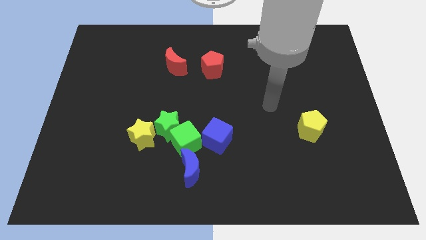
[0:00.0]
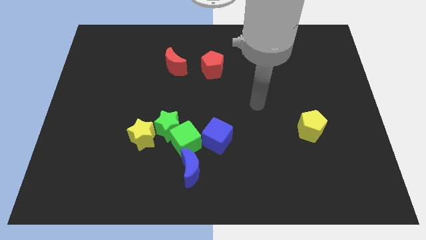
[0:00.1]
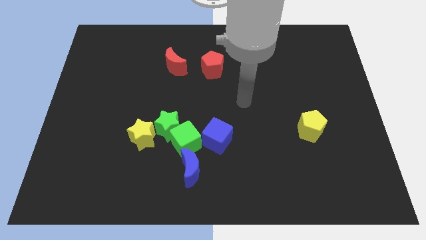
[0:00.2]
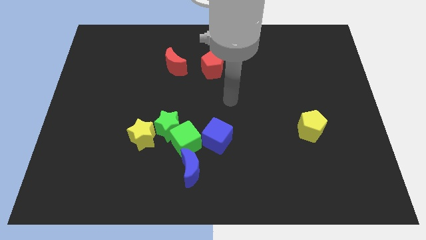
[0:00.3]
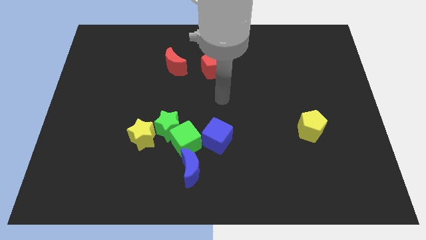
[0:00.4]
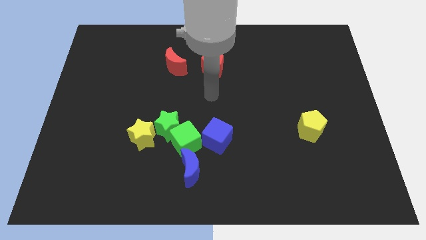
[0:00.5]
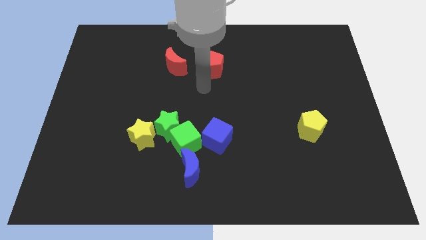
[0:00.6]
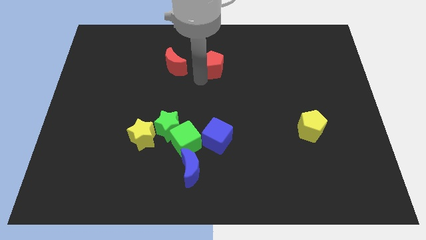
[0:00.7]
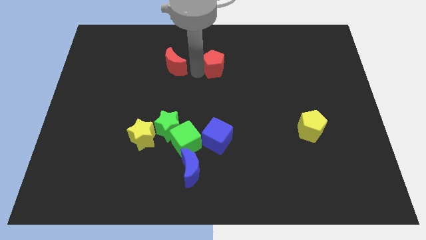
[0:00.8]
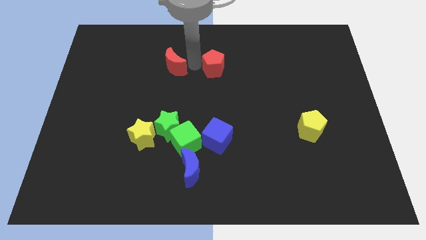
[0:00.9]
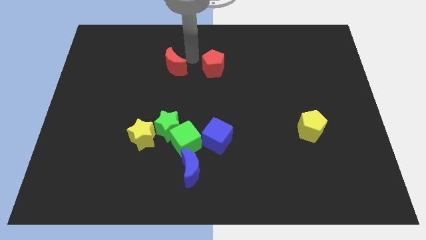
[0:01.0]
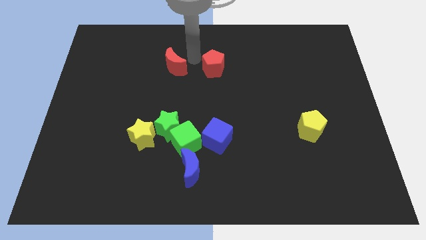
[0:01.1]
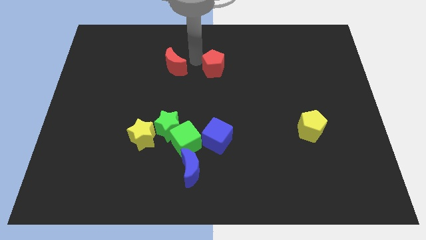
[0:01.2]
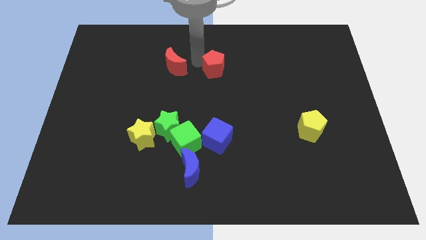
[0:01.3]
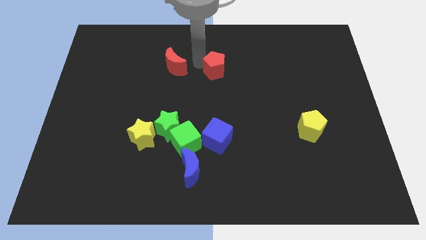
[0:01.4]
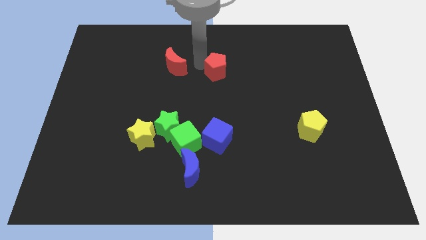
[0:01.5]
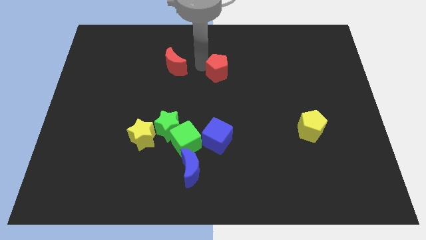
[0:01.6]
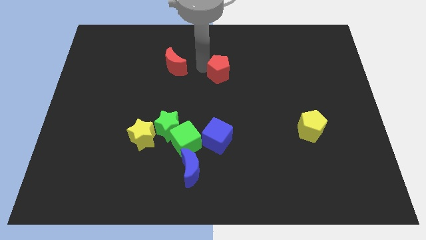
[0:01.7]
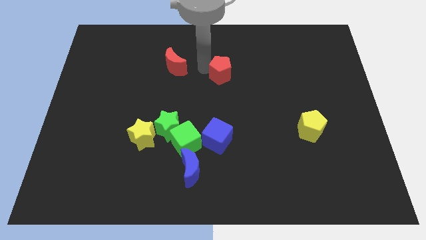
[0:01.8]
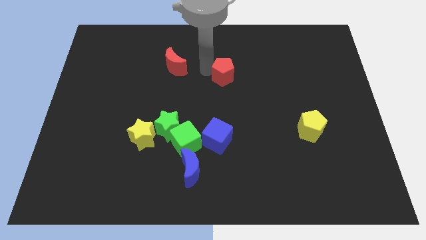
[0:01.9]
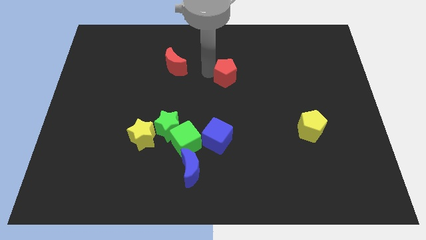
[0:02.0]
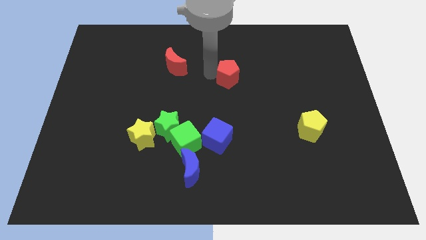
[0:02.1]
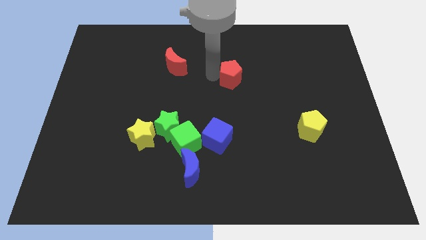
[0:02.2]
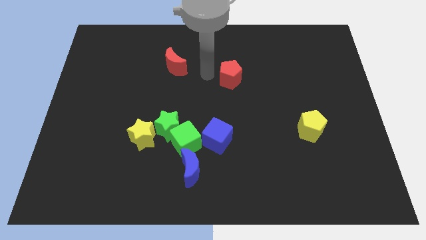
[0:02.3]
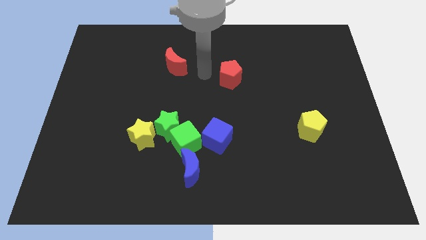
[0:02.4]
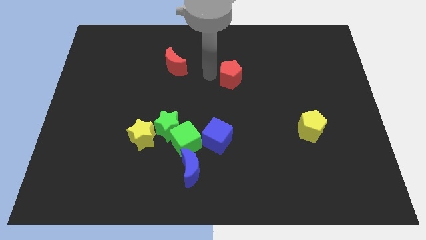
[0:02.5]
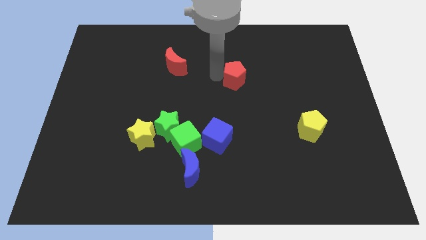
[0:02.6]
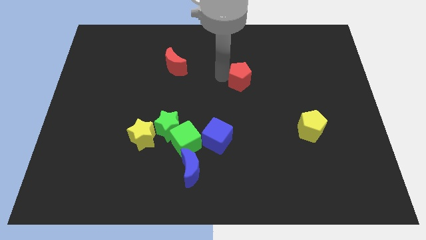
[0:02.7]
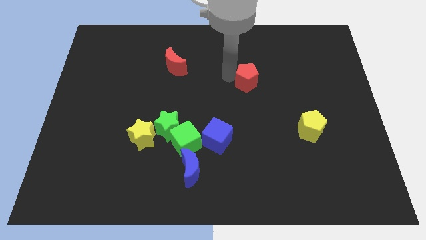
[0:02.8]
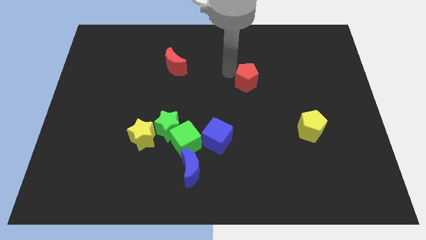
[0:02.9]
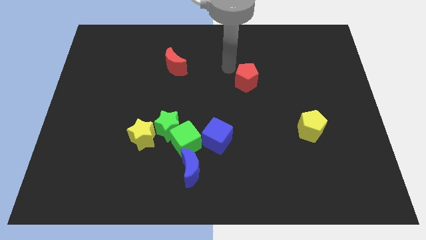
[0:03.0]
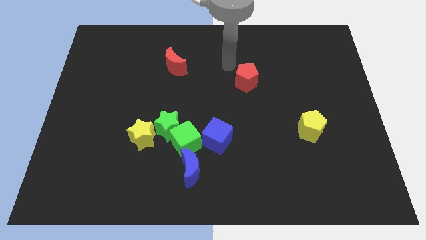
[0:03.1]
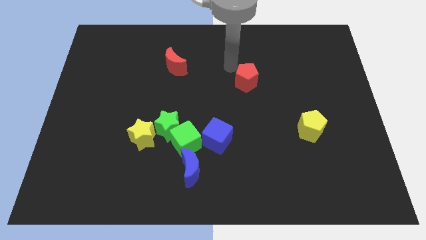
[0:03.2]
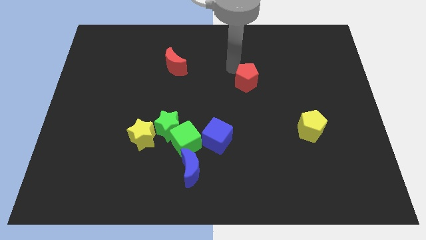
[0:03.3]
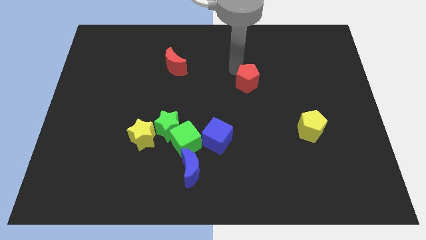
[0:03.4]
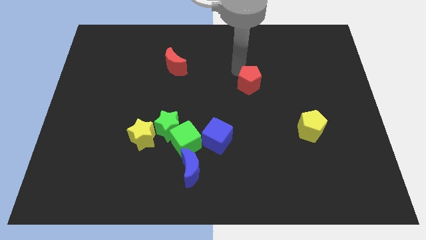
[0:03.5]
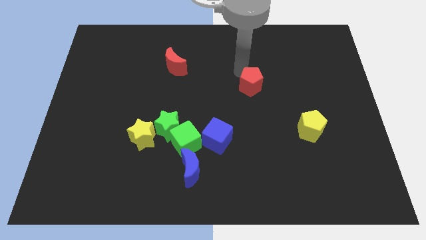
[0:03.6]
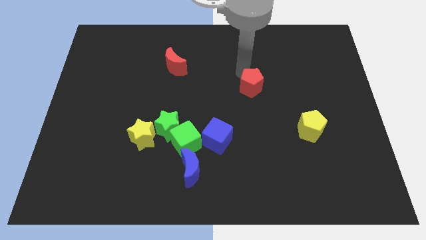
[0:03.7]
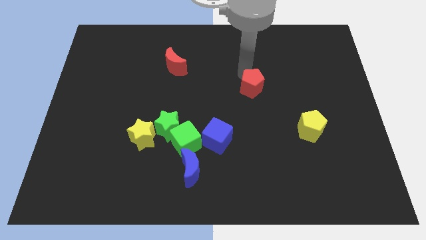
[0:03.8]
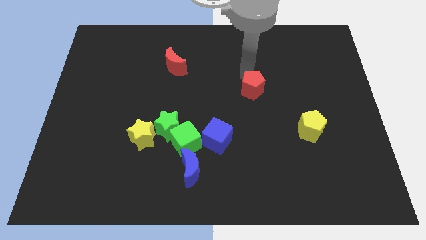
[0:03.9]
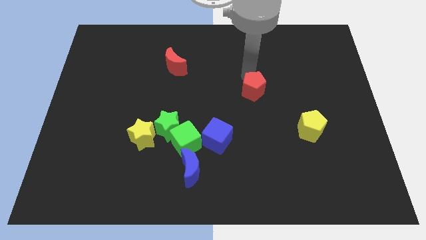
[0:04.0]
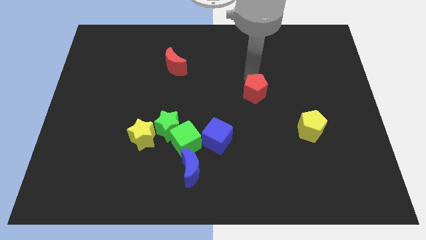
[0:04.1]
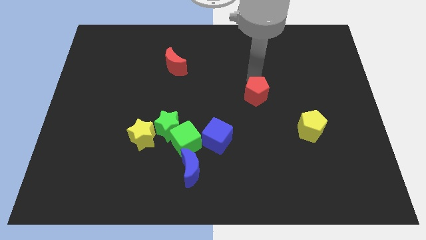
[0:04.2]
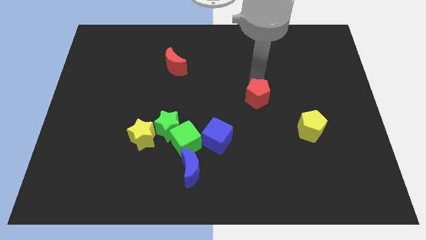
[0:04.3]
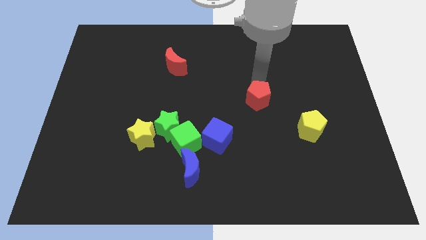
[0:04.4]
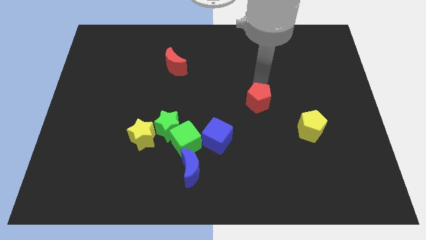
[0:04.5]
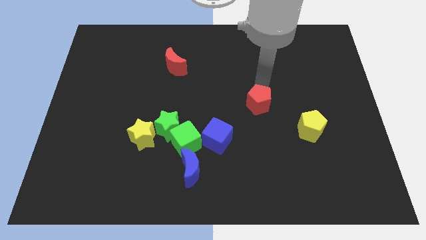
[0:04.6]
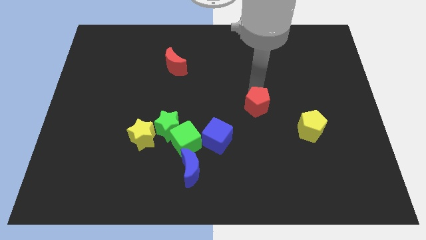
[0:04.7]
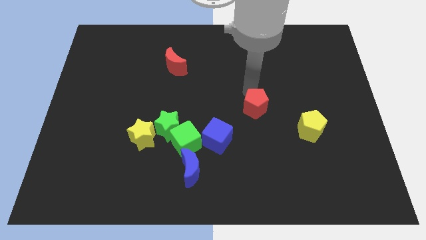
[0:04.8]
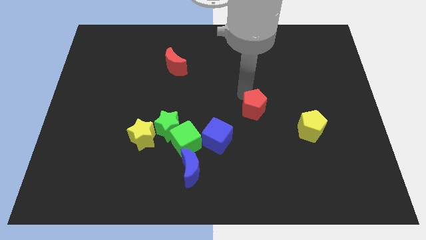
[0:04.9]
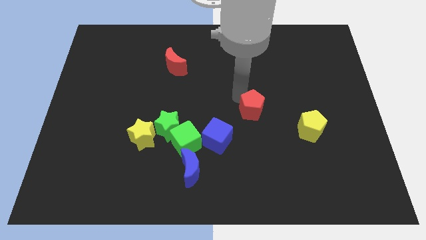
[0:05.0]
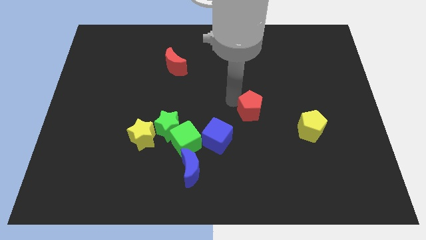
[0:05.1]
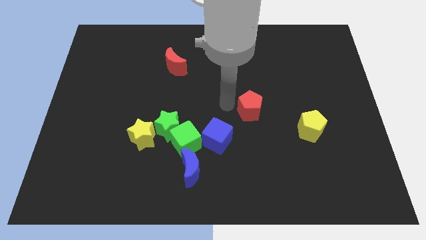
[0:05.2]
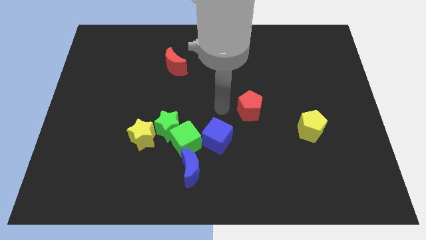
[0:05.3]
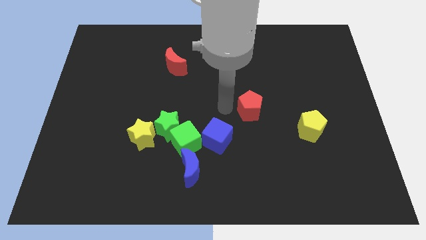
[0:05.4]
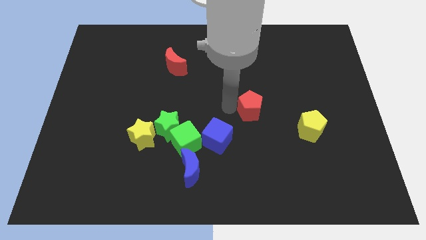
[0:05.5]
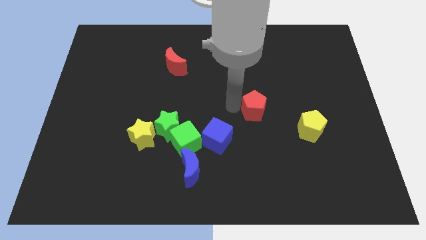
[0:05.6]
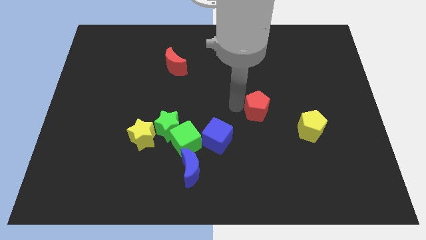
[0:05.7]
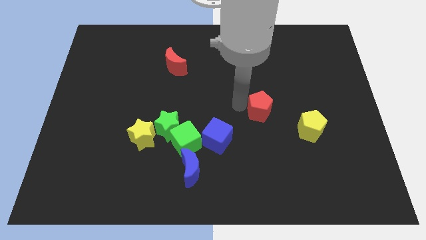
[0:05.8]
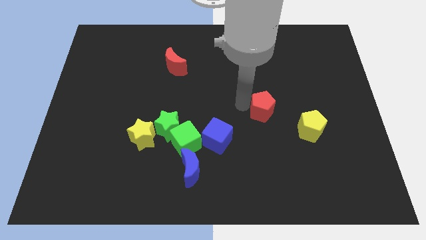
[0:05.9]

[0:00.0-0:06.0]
put the red pentagon diagonally up and to the left of the yellow pentagon
